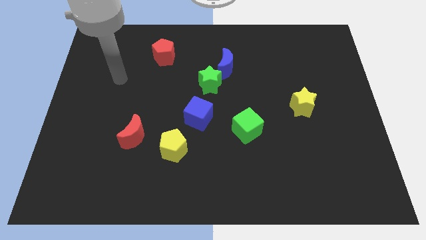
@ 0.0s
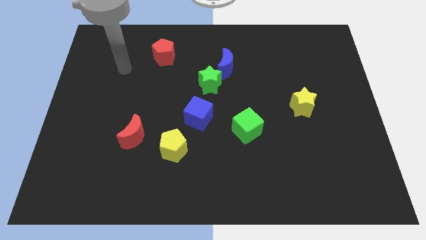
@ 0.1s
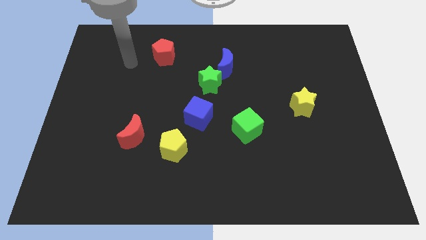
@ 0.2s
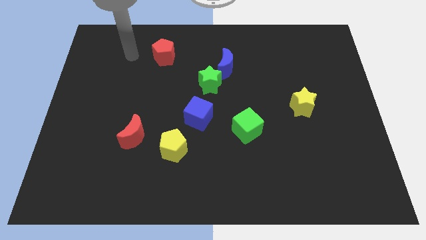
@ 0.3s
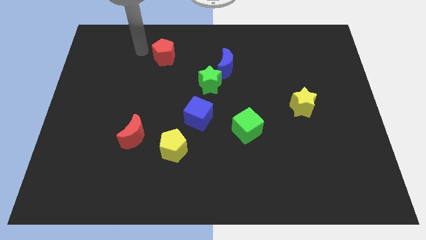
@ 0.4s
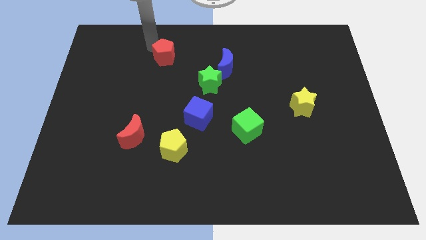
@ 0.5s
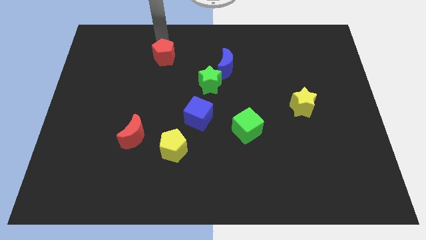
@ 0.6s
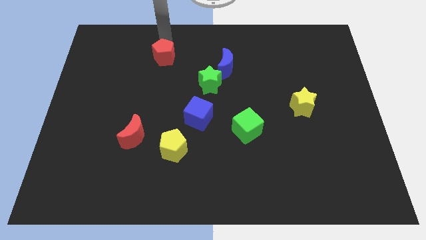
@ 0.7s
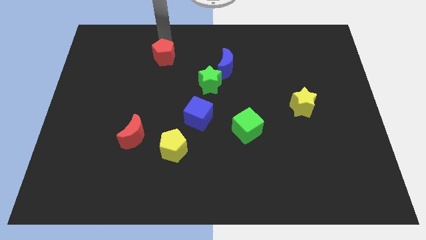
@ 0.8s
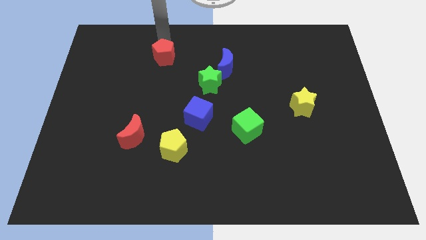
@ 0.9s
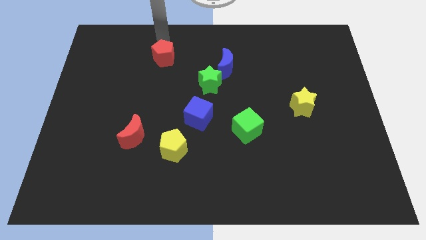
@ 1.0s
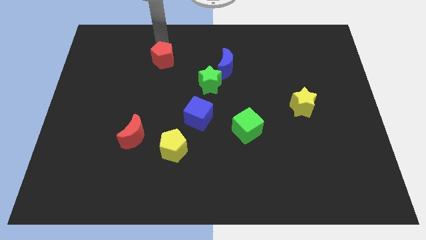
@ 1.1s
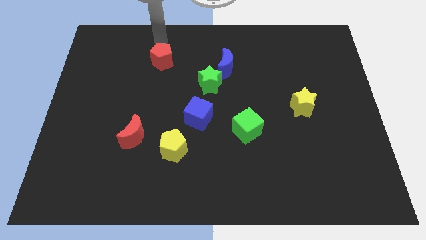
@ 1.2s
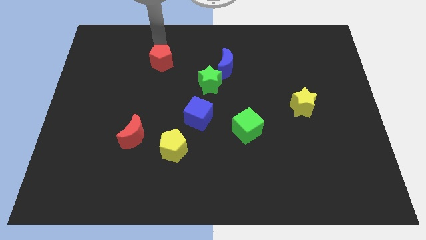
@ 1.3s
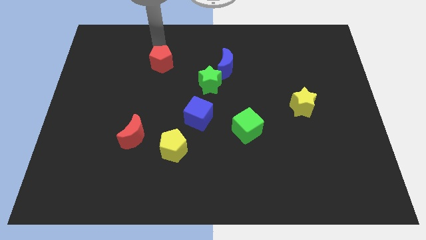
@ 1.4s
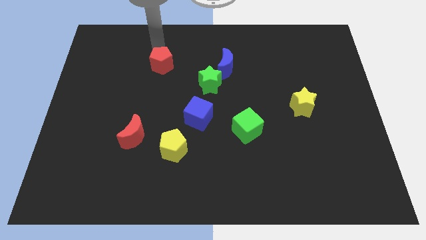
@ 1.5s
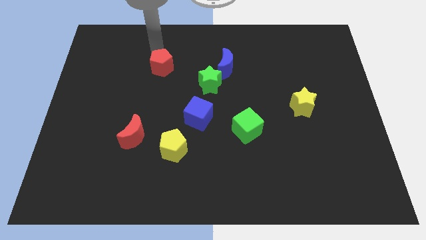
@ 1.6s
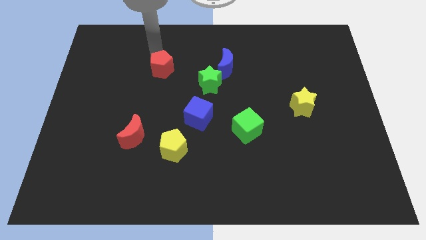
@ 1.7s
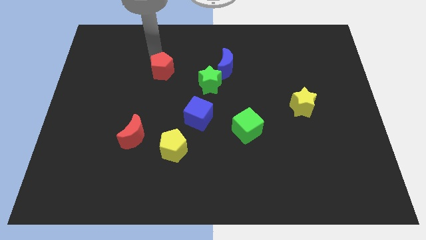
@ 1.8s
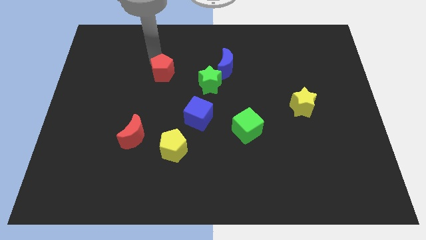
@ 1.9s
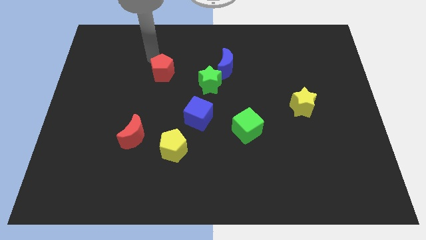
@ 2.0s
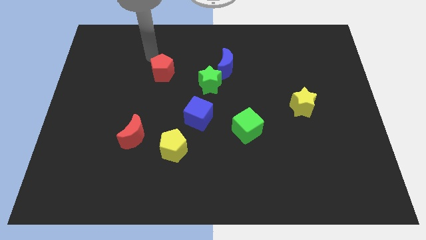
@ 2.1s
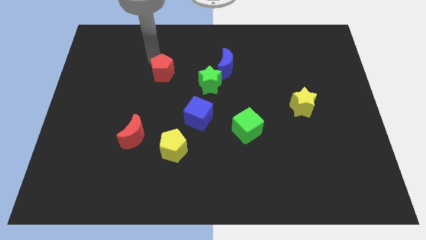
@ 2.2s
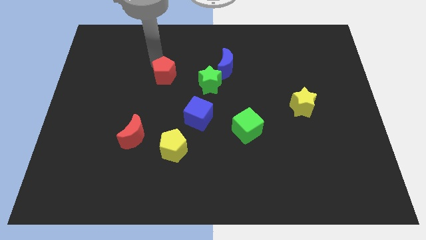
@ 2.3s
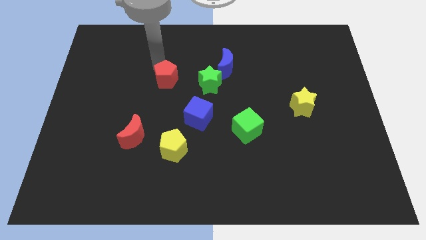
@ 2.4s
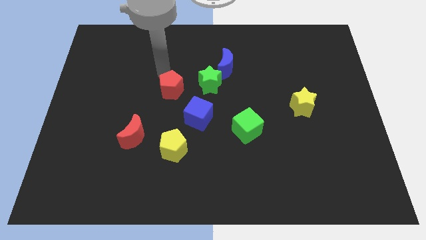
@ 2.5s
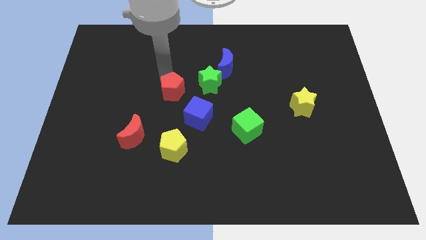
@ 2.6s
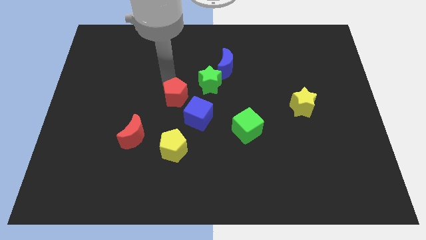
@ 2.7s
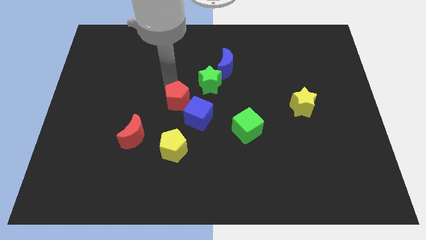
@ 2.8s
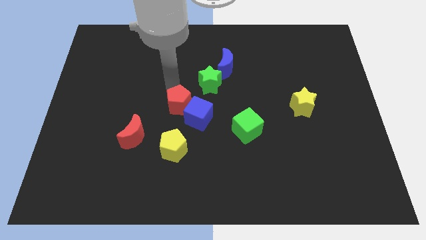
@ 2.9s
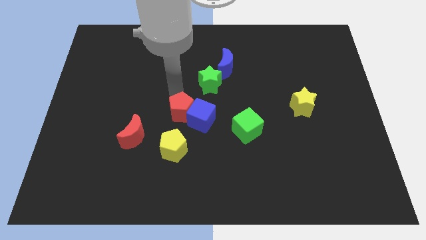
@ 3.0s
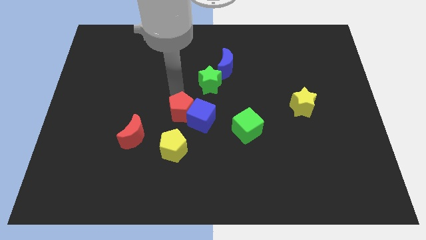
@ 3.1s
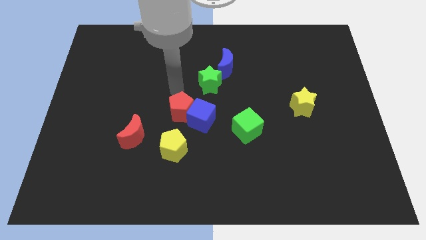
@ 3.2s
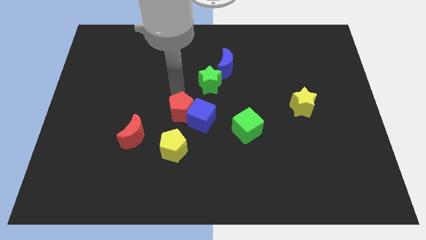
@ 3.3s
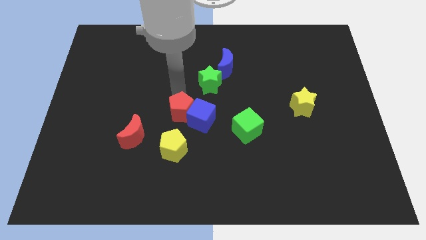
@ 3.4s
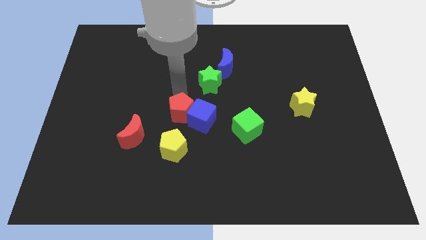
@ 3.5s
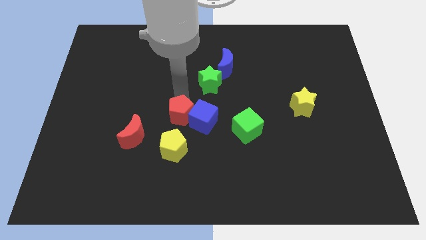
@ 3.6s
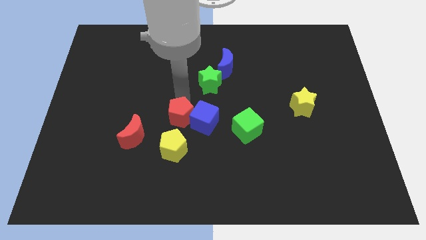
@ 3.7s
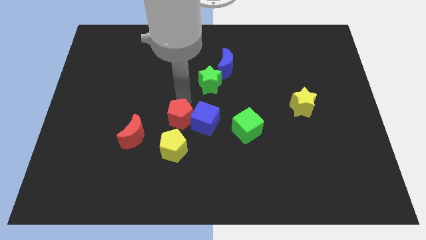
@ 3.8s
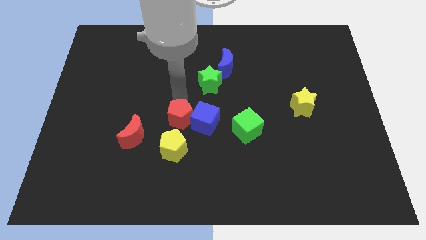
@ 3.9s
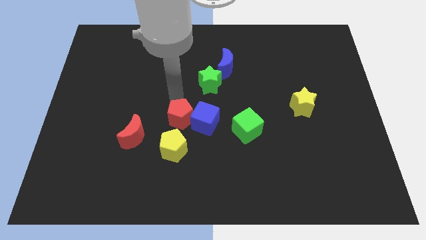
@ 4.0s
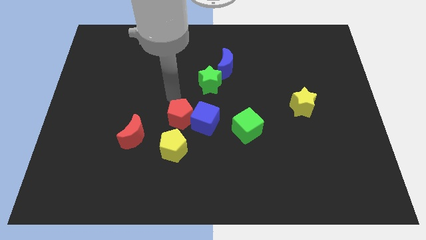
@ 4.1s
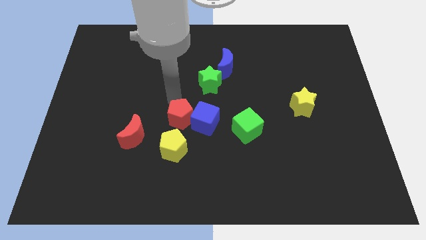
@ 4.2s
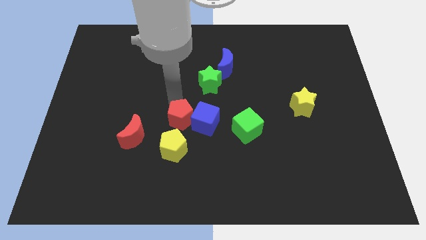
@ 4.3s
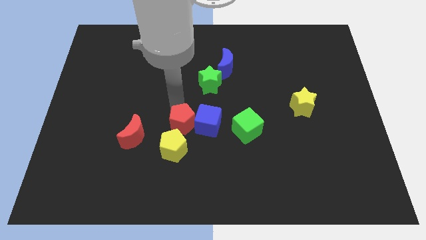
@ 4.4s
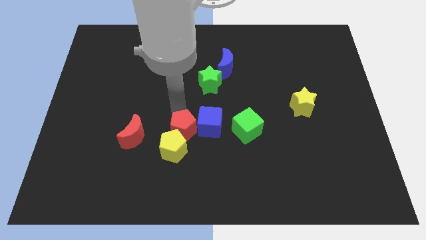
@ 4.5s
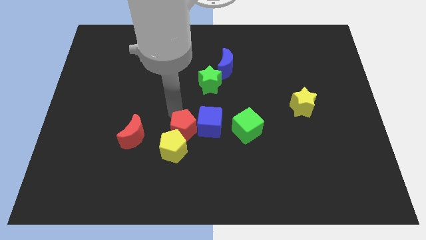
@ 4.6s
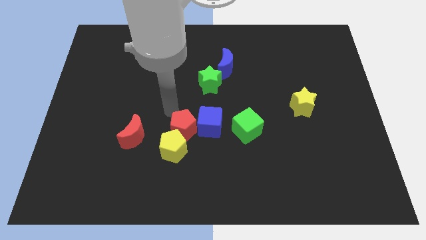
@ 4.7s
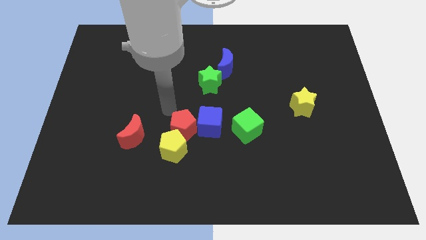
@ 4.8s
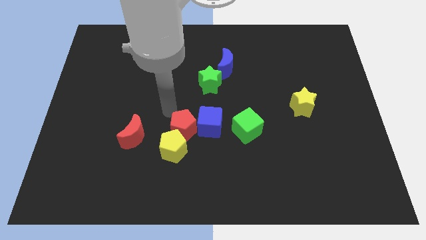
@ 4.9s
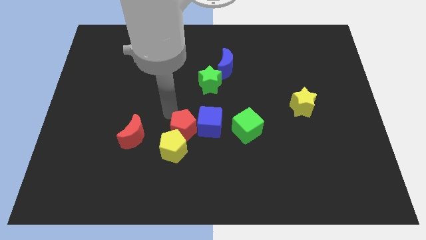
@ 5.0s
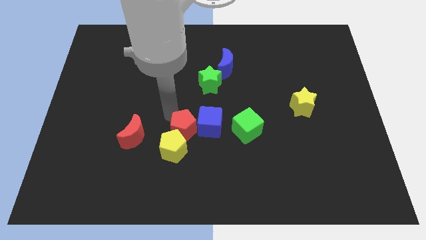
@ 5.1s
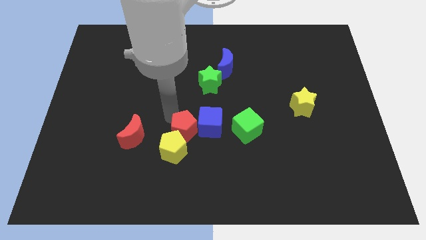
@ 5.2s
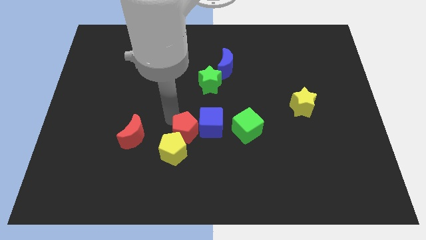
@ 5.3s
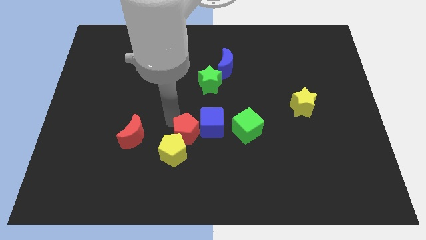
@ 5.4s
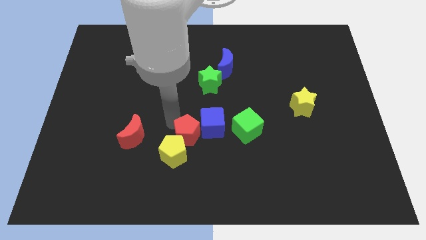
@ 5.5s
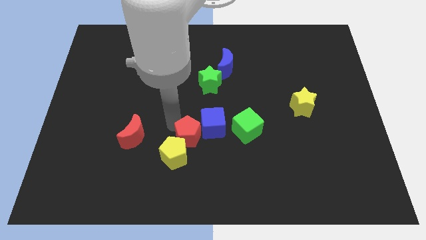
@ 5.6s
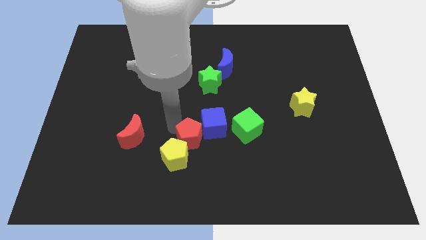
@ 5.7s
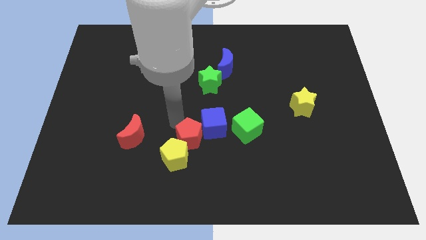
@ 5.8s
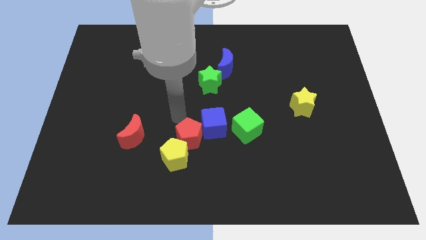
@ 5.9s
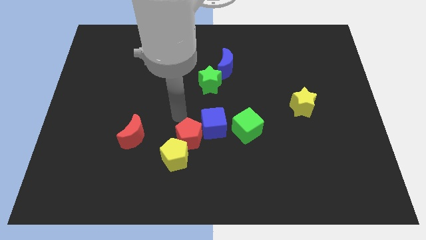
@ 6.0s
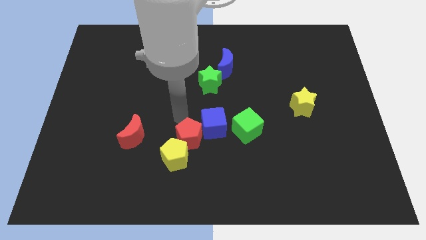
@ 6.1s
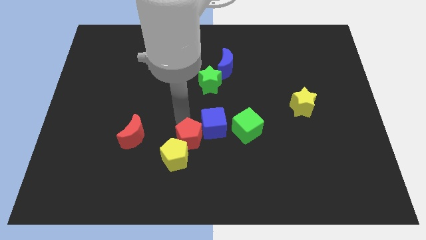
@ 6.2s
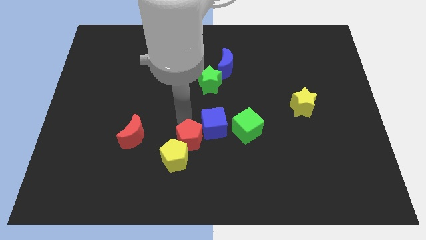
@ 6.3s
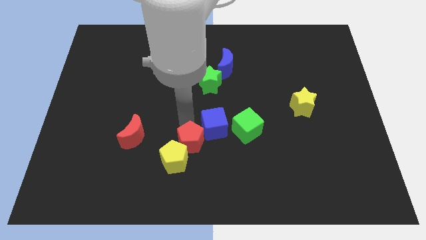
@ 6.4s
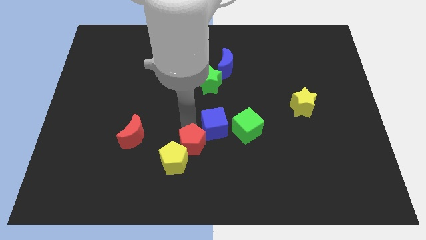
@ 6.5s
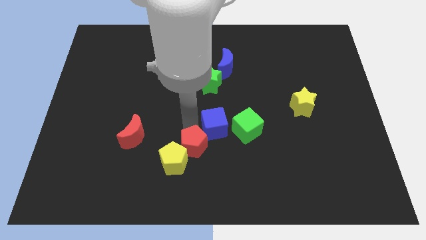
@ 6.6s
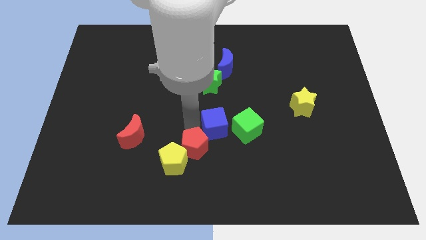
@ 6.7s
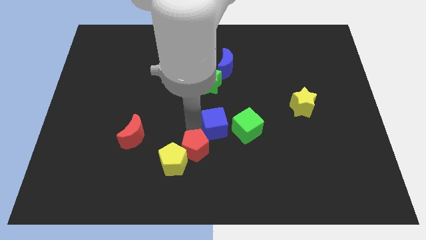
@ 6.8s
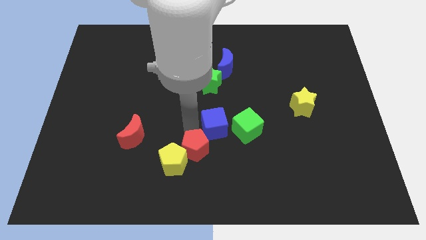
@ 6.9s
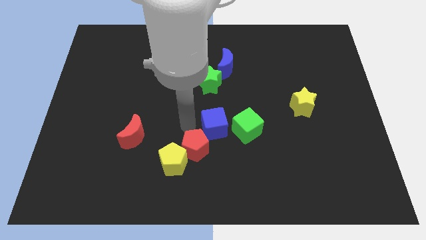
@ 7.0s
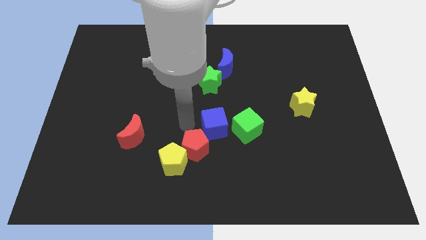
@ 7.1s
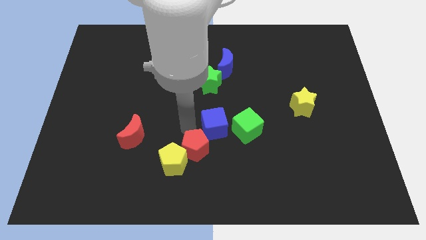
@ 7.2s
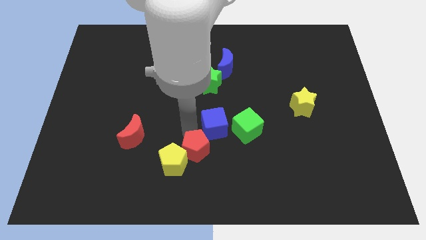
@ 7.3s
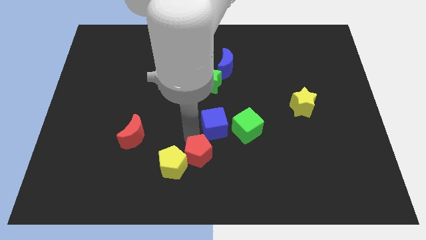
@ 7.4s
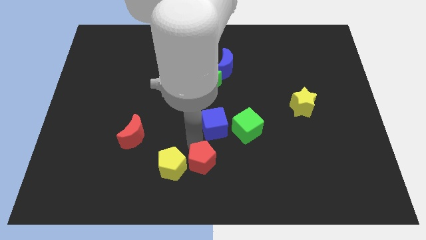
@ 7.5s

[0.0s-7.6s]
put the red pentagon to the bottom side

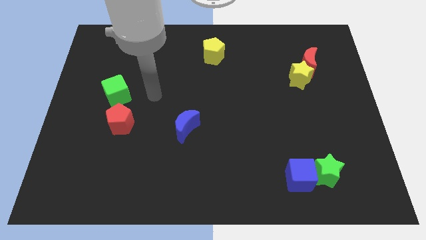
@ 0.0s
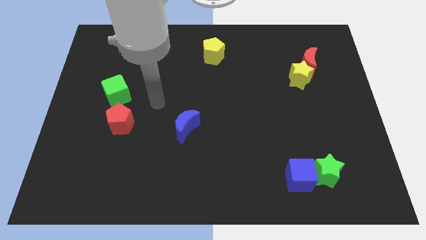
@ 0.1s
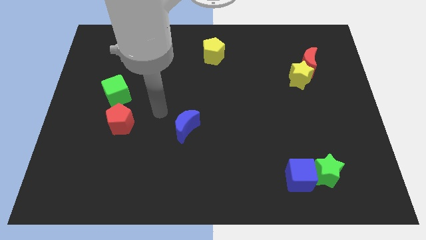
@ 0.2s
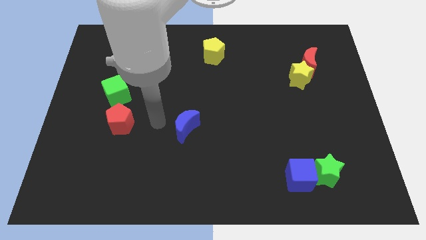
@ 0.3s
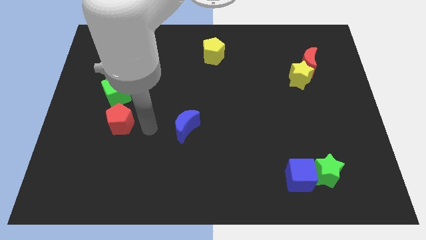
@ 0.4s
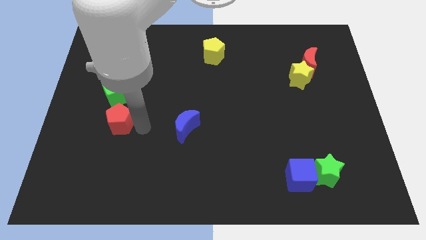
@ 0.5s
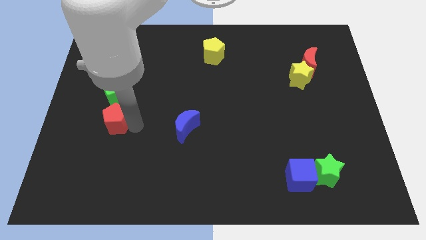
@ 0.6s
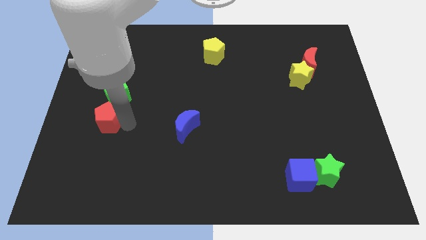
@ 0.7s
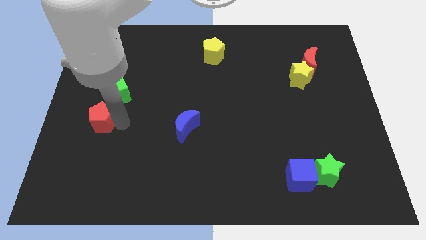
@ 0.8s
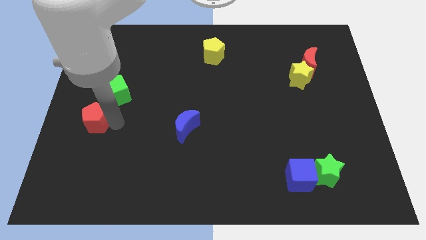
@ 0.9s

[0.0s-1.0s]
put the red pentagon to the left side
